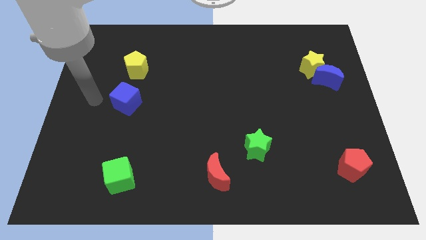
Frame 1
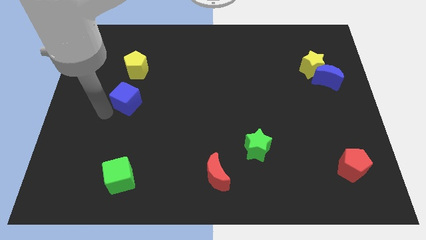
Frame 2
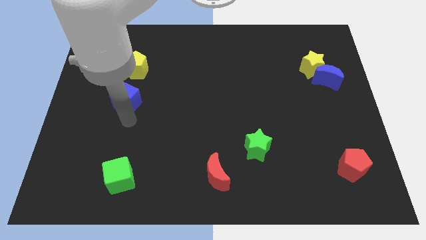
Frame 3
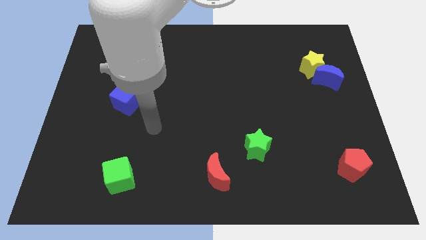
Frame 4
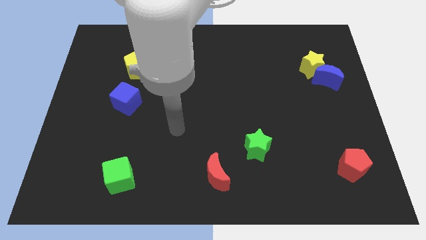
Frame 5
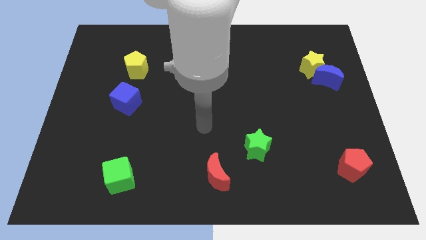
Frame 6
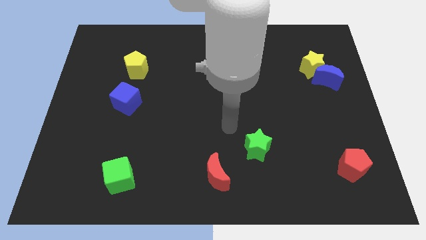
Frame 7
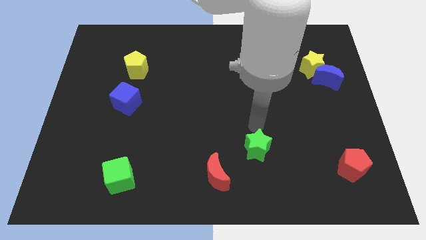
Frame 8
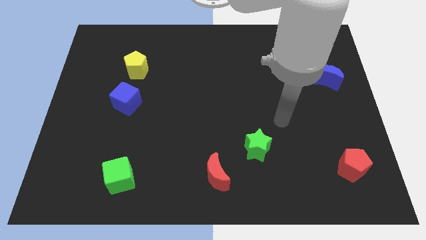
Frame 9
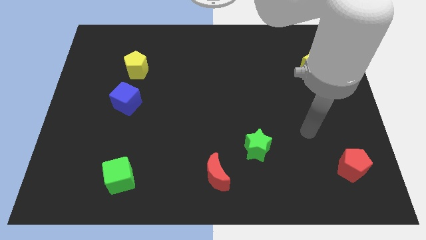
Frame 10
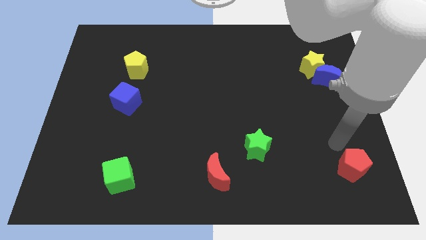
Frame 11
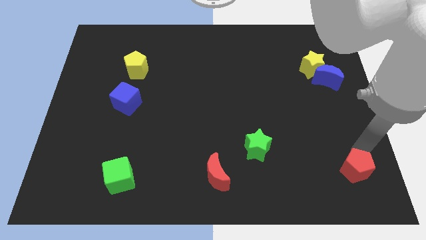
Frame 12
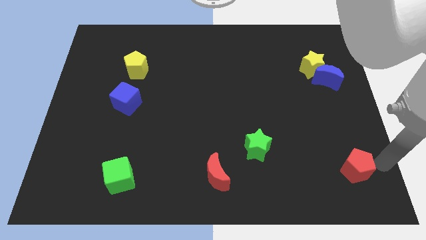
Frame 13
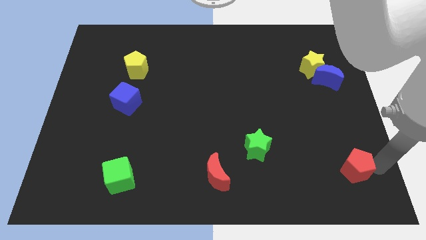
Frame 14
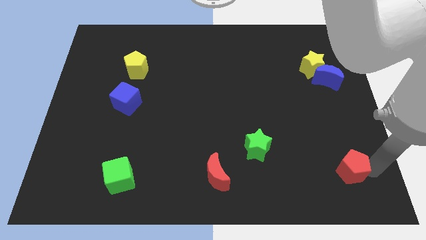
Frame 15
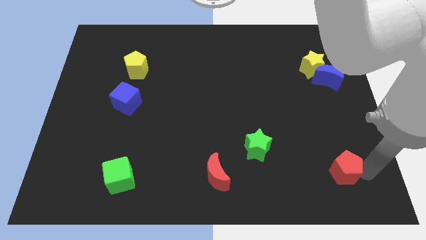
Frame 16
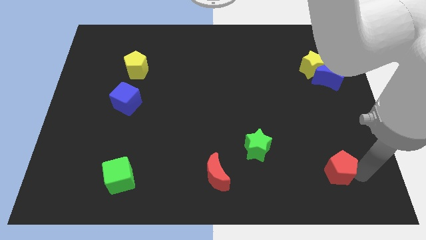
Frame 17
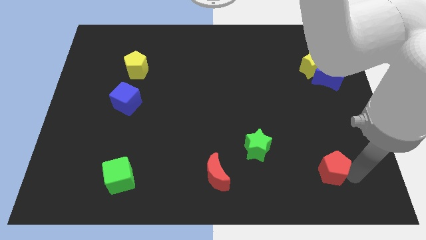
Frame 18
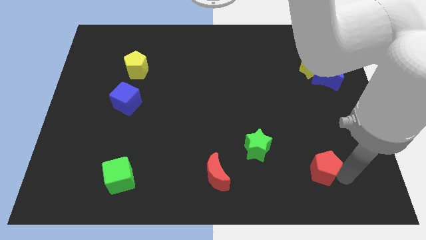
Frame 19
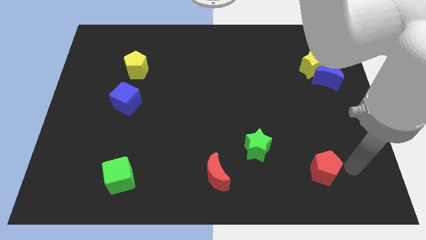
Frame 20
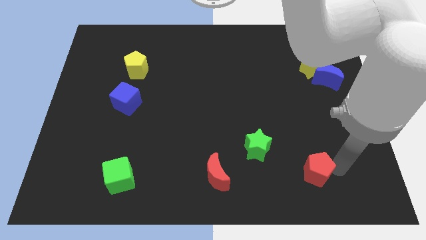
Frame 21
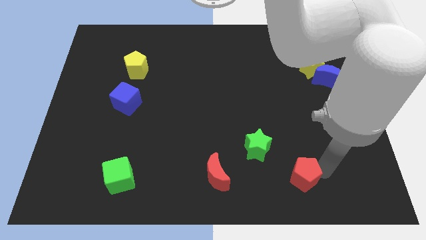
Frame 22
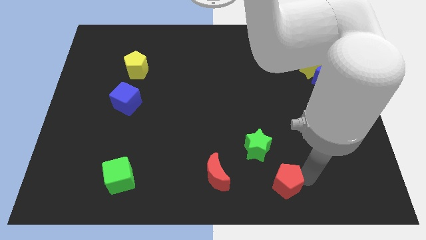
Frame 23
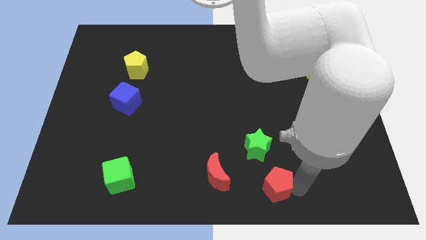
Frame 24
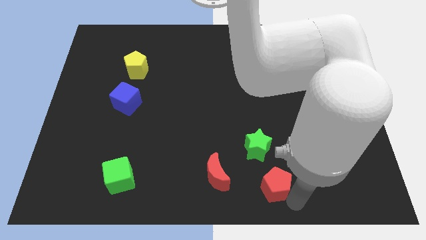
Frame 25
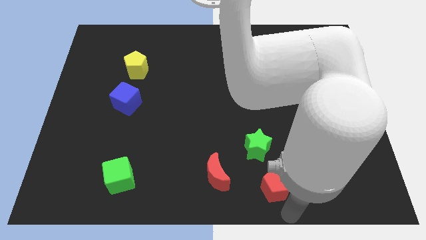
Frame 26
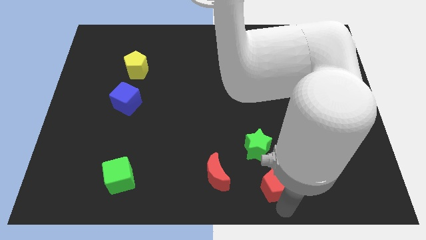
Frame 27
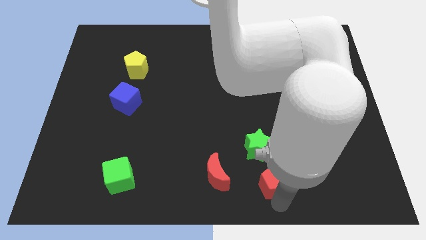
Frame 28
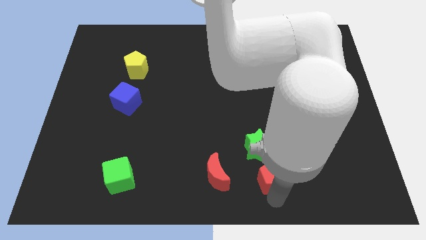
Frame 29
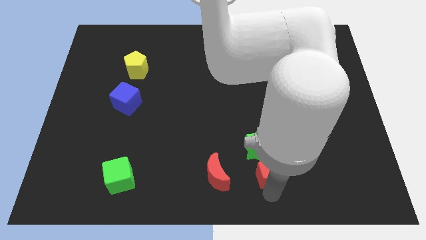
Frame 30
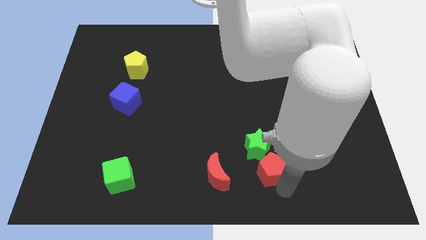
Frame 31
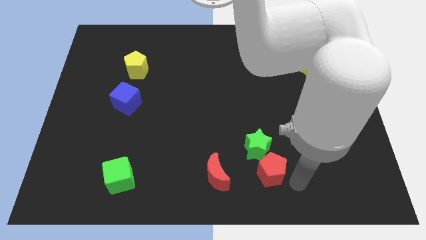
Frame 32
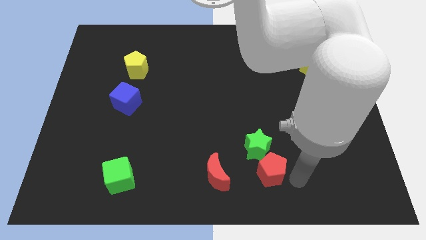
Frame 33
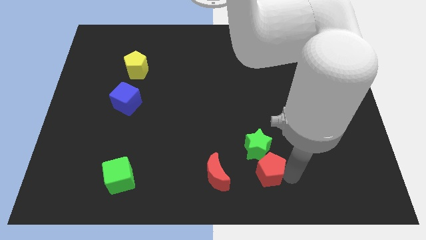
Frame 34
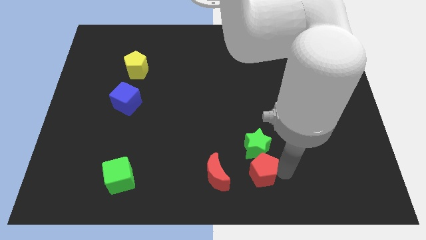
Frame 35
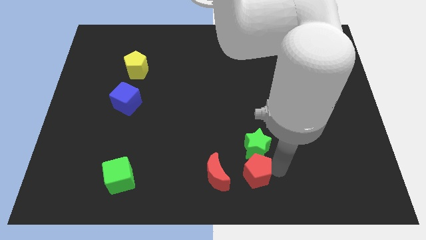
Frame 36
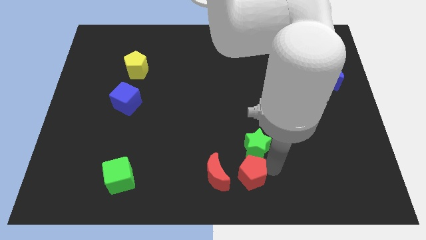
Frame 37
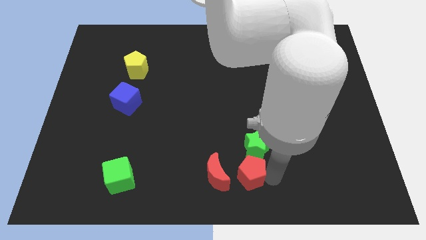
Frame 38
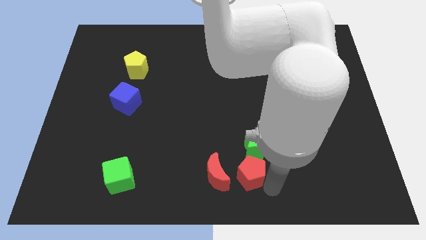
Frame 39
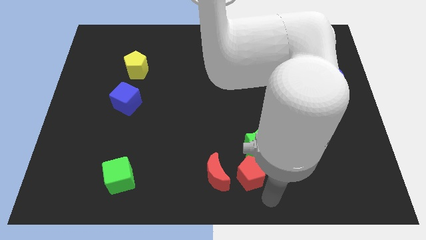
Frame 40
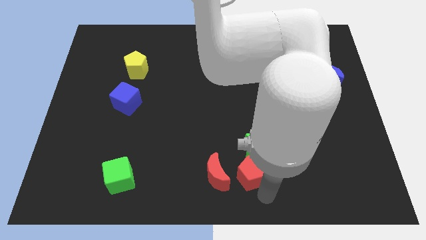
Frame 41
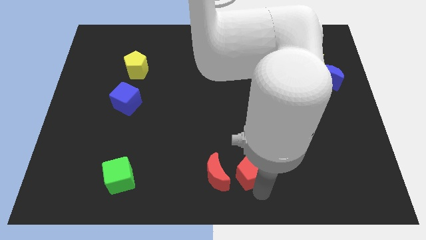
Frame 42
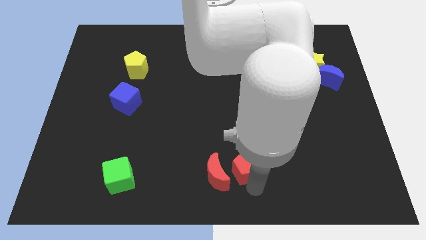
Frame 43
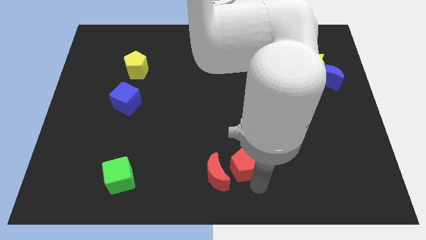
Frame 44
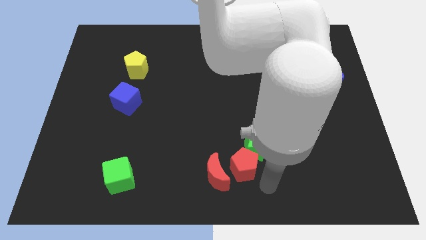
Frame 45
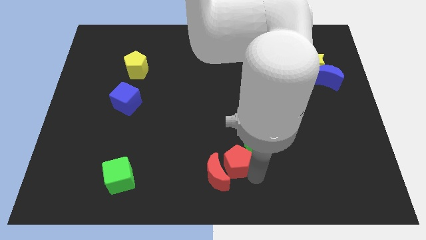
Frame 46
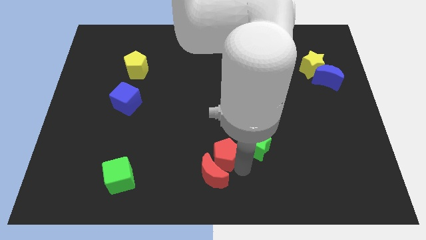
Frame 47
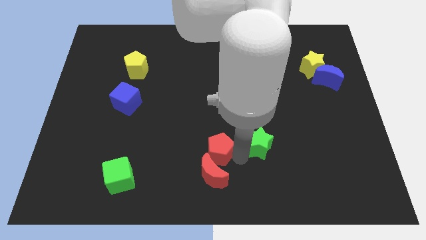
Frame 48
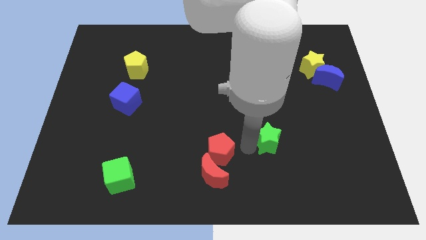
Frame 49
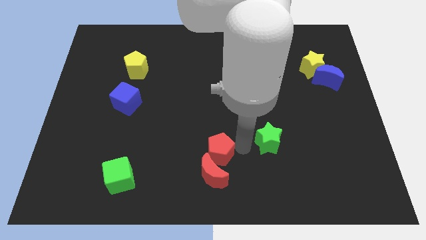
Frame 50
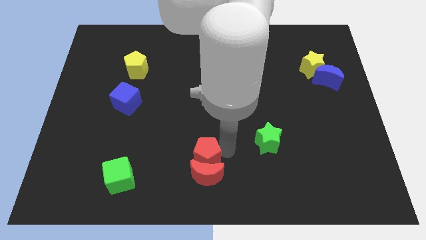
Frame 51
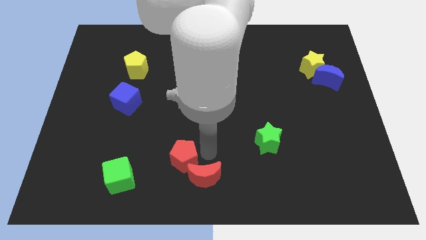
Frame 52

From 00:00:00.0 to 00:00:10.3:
move the red pentagon to the left of the red moon

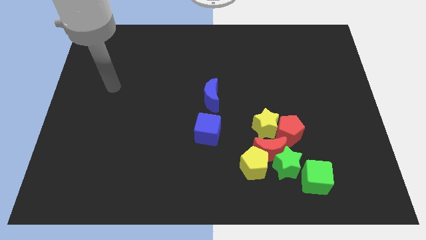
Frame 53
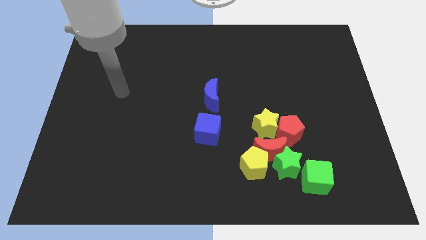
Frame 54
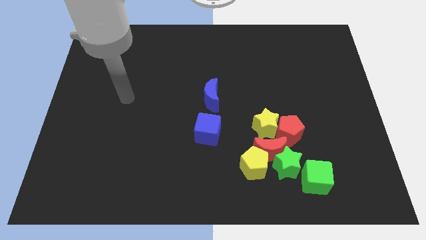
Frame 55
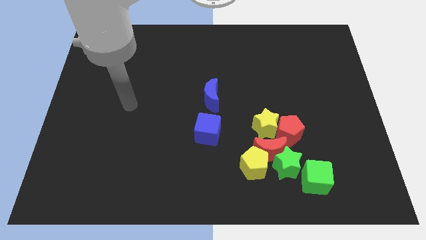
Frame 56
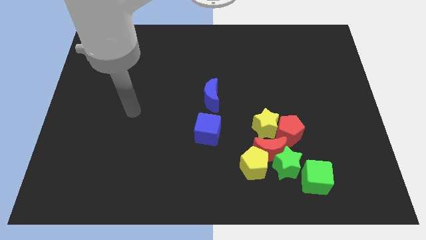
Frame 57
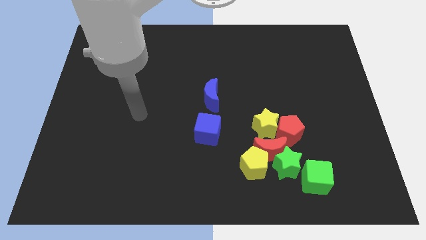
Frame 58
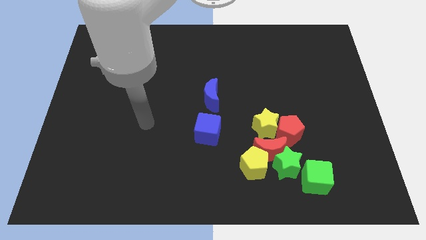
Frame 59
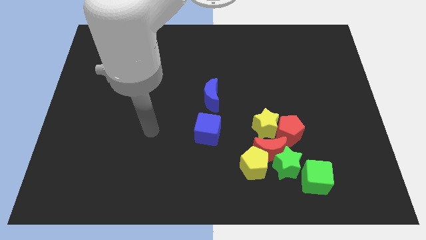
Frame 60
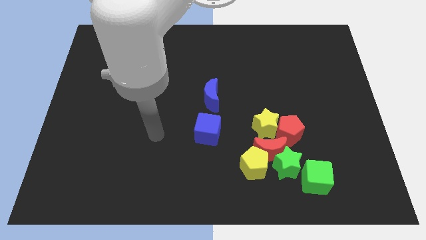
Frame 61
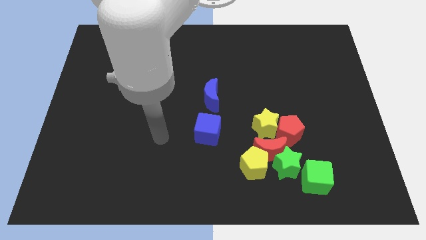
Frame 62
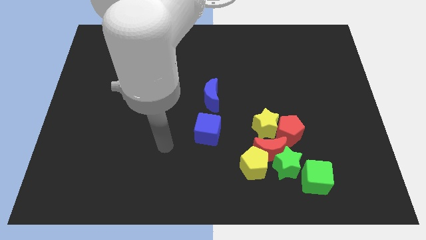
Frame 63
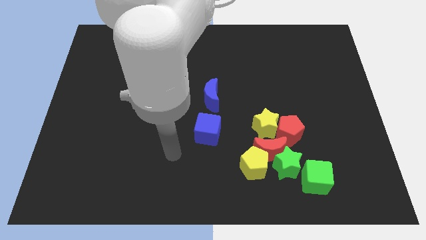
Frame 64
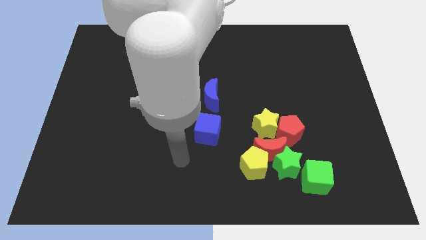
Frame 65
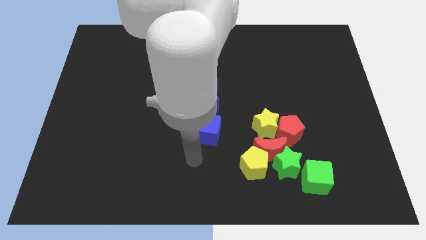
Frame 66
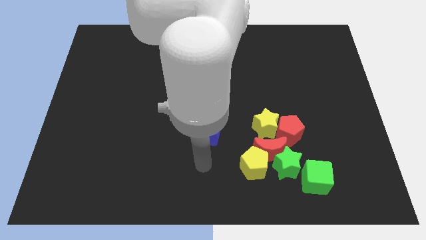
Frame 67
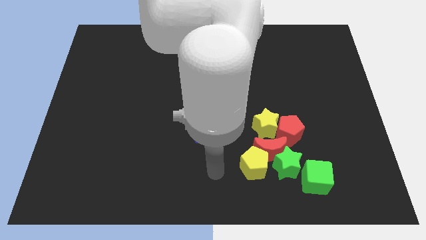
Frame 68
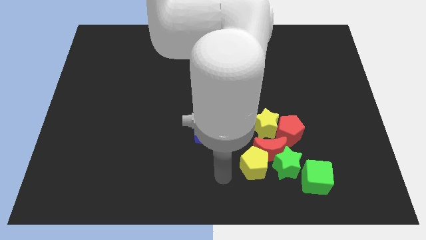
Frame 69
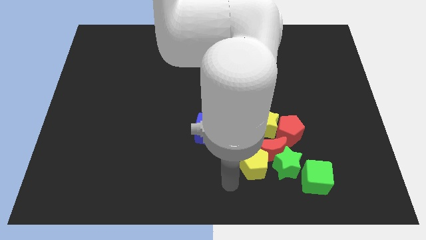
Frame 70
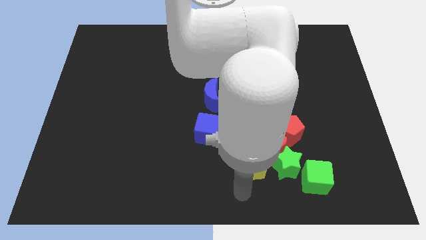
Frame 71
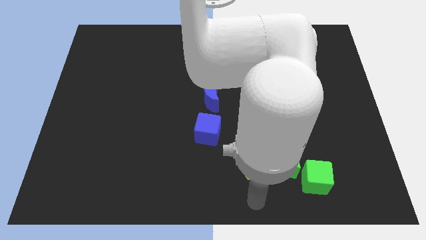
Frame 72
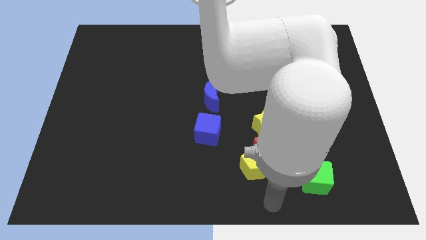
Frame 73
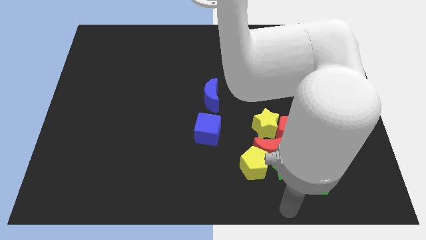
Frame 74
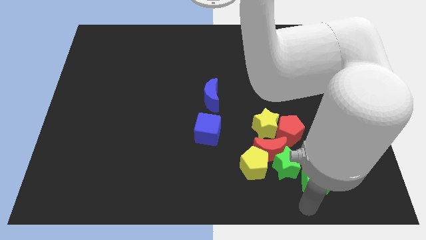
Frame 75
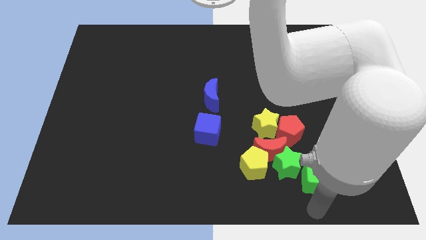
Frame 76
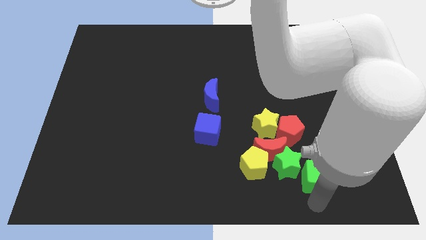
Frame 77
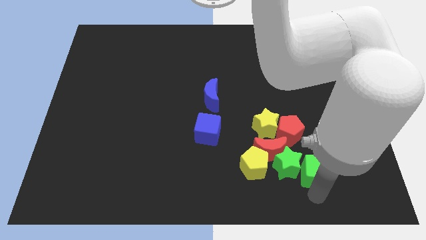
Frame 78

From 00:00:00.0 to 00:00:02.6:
push the green cube diagonally down and to the right of the red pentagon

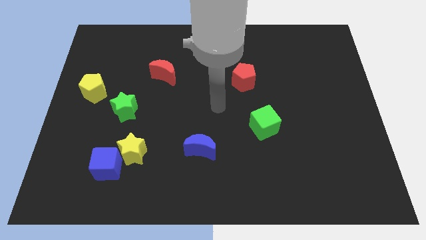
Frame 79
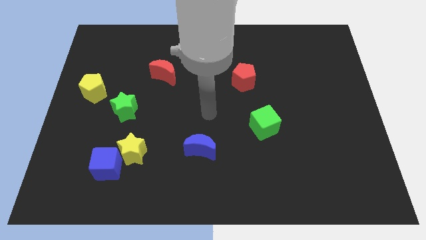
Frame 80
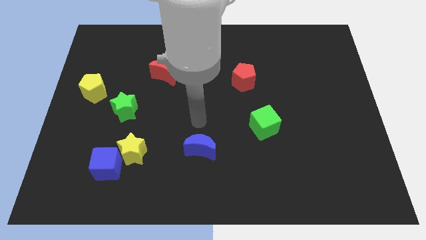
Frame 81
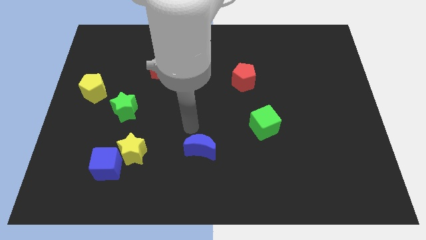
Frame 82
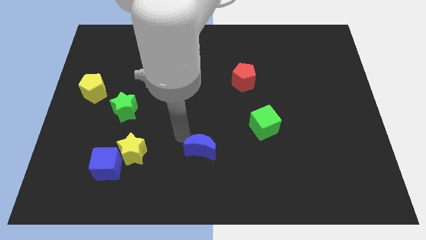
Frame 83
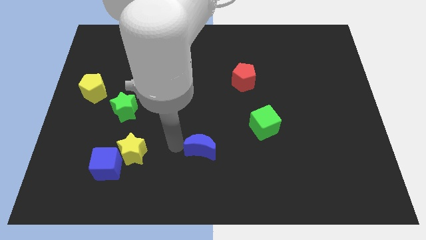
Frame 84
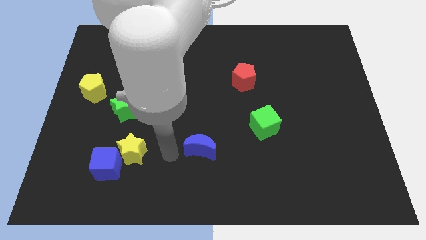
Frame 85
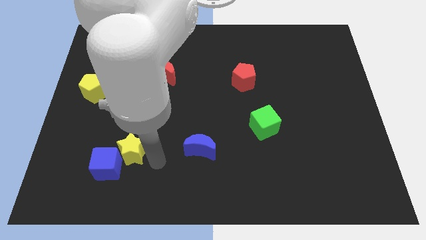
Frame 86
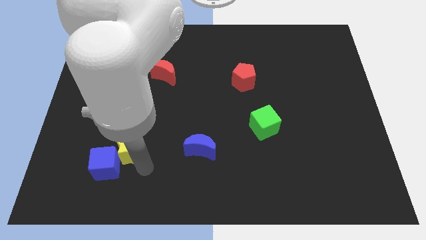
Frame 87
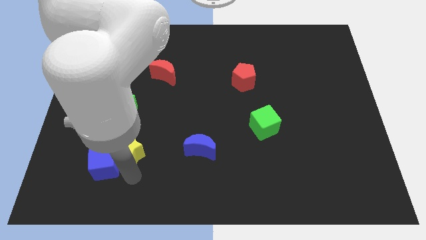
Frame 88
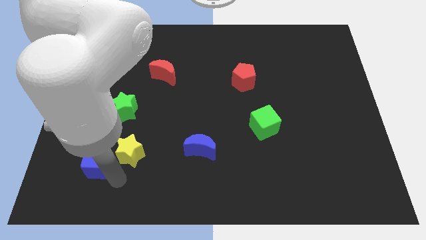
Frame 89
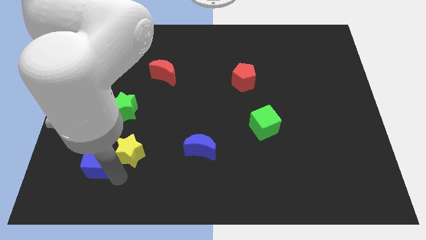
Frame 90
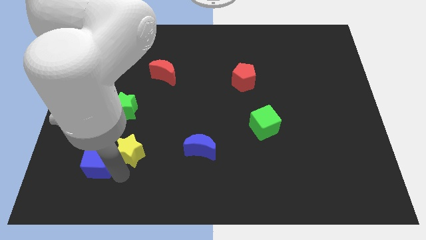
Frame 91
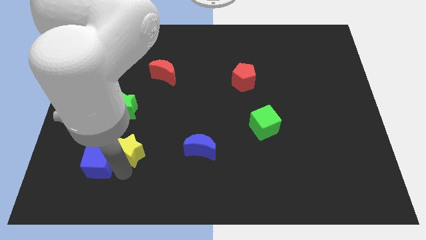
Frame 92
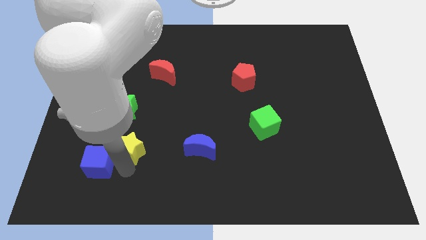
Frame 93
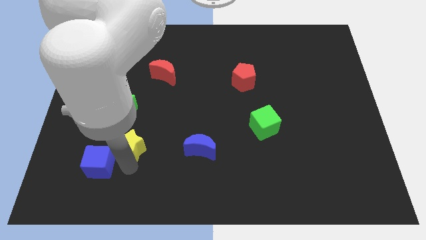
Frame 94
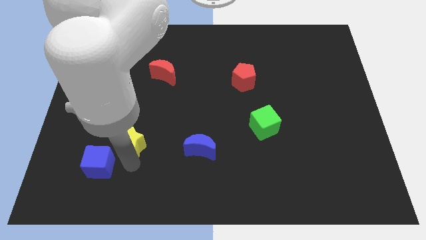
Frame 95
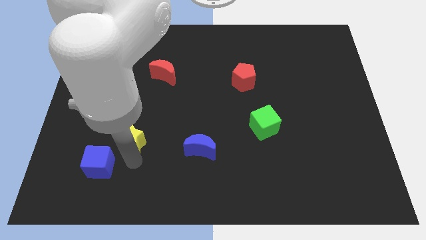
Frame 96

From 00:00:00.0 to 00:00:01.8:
move the yellow star to the bottom right side of the green star
